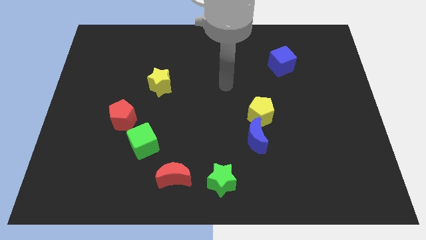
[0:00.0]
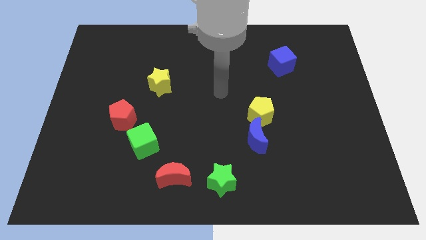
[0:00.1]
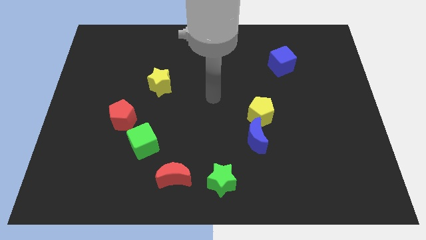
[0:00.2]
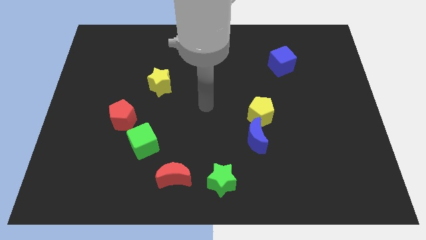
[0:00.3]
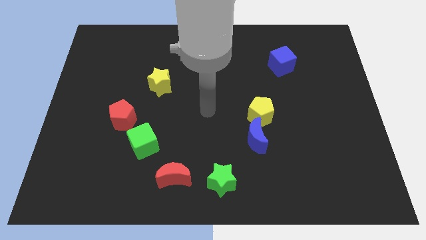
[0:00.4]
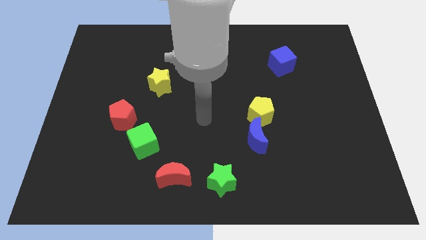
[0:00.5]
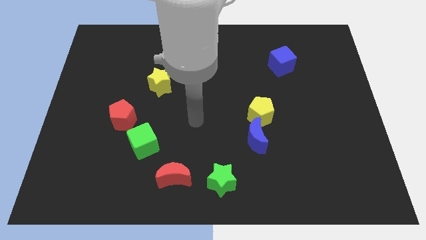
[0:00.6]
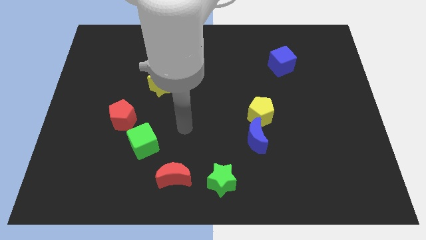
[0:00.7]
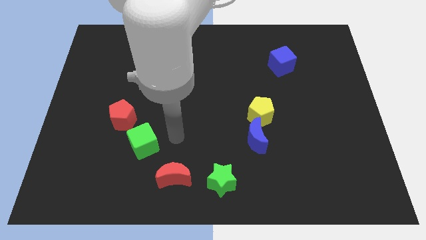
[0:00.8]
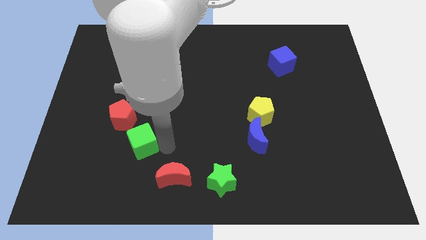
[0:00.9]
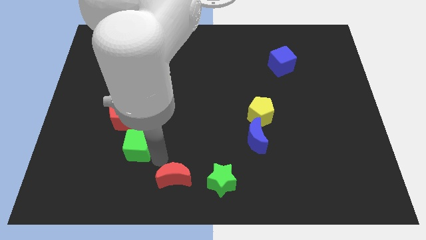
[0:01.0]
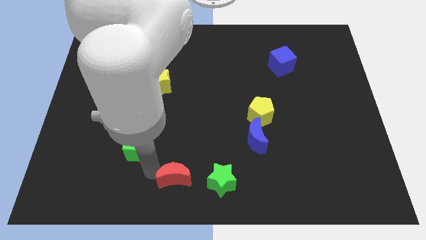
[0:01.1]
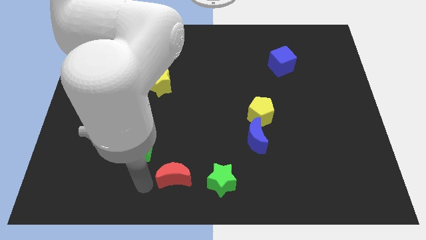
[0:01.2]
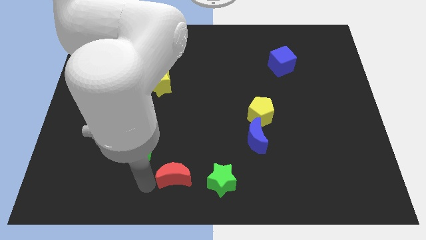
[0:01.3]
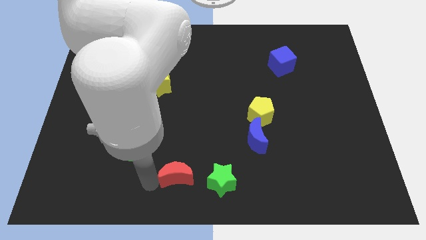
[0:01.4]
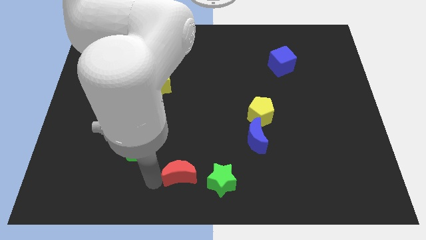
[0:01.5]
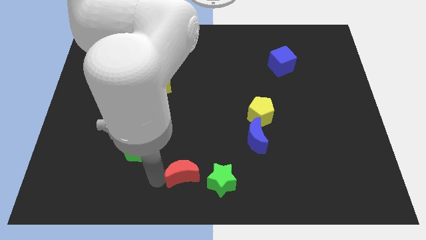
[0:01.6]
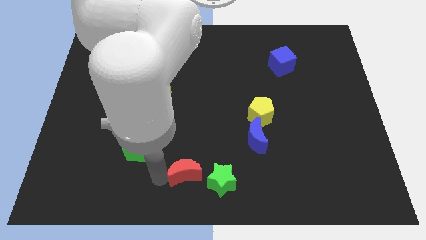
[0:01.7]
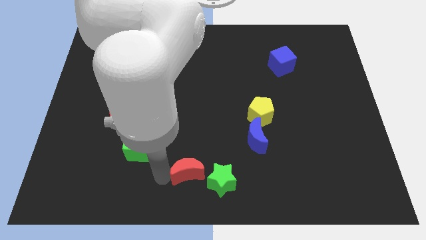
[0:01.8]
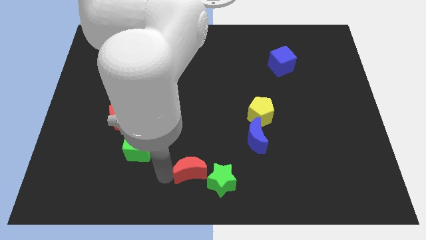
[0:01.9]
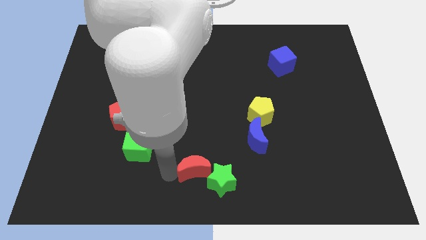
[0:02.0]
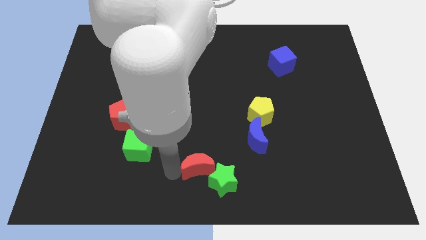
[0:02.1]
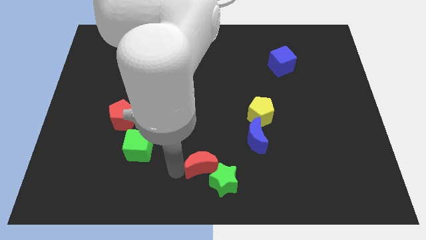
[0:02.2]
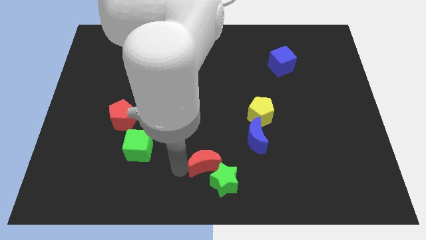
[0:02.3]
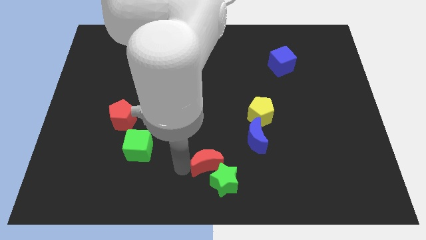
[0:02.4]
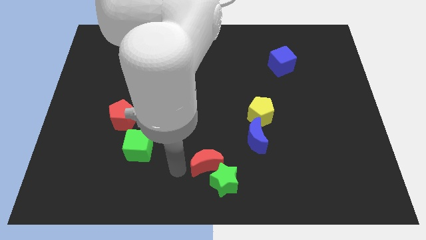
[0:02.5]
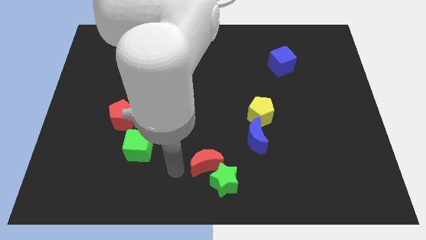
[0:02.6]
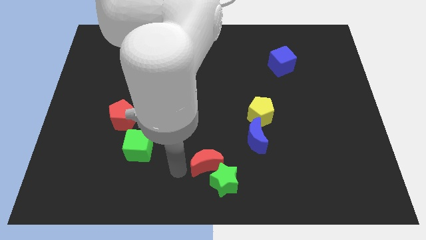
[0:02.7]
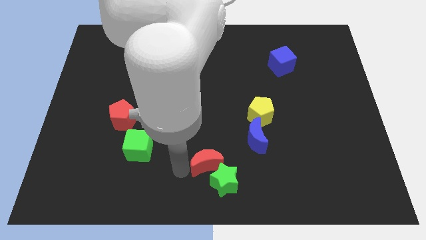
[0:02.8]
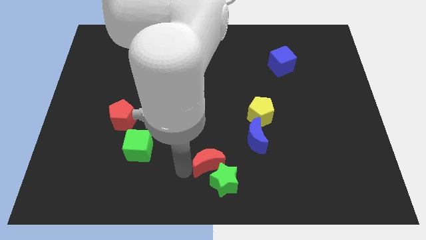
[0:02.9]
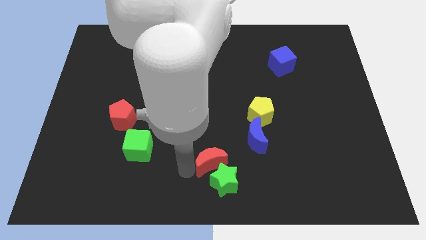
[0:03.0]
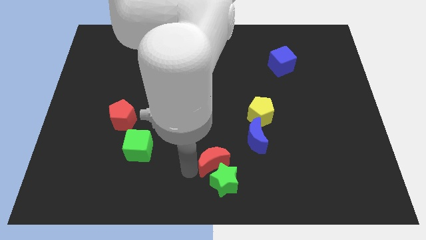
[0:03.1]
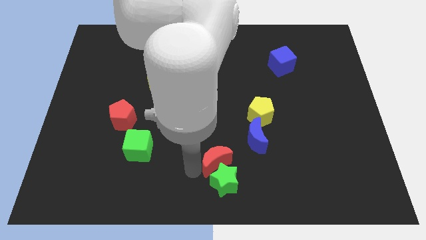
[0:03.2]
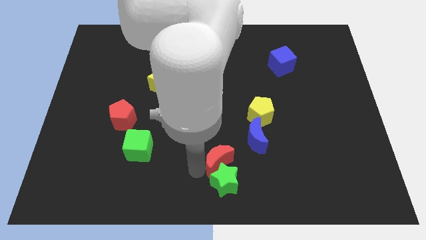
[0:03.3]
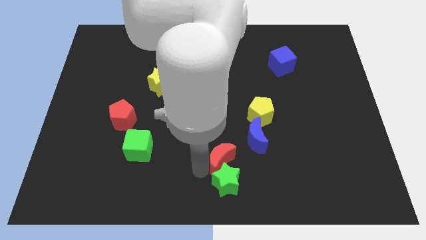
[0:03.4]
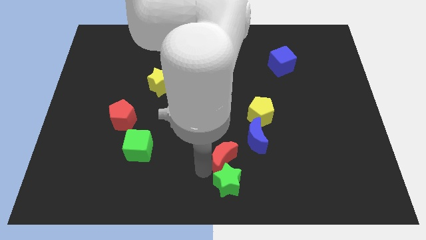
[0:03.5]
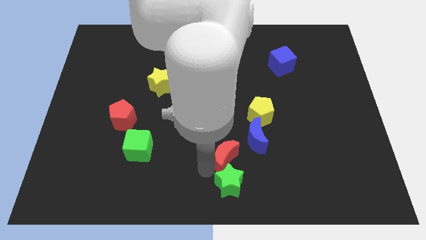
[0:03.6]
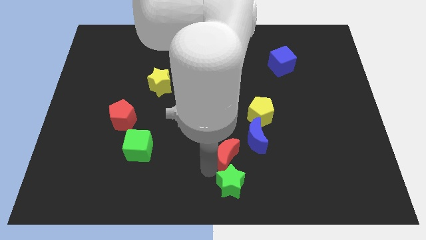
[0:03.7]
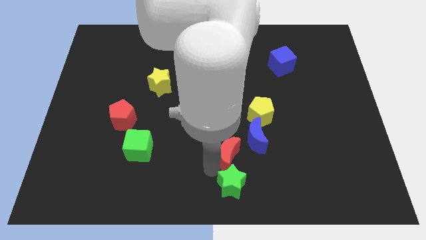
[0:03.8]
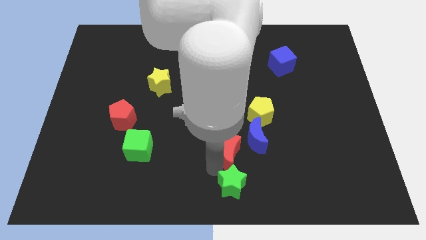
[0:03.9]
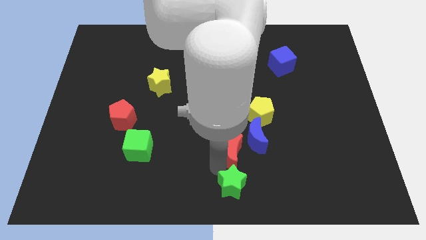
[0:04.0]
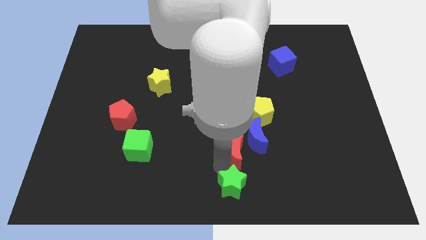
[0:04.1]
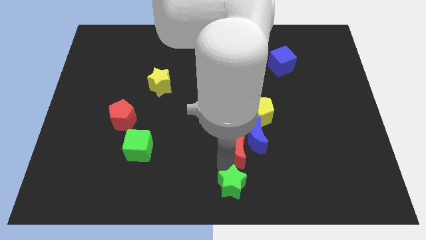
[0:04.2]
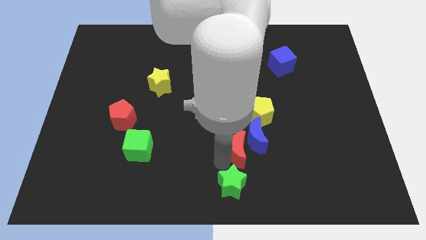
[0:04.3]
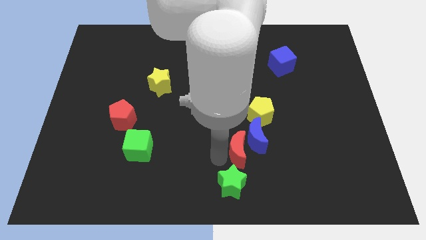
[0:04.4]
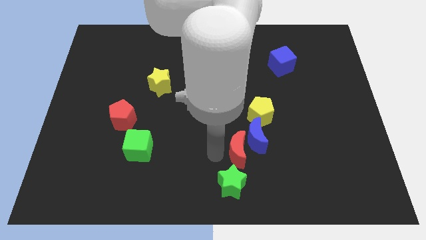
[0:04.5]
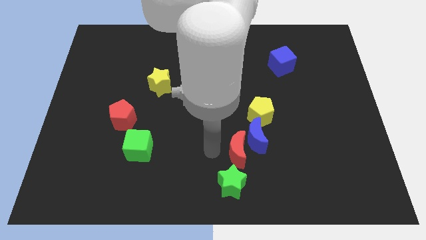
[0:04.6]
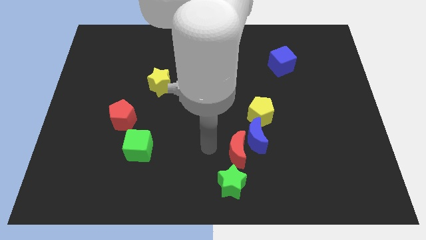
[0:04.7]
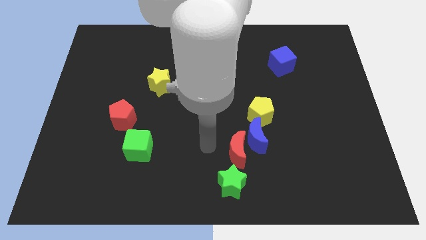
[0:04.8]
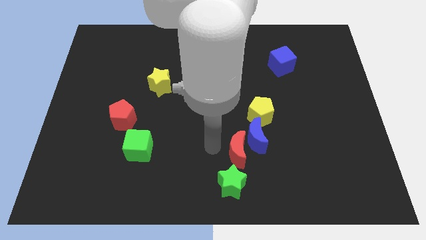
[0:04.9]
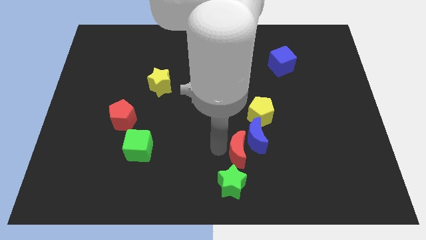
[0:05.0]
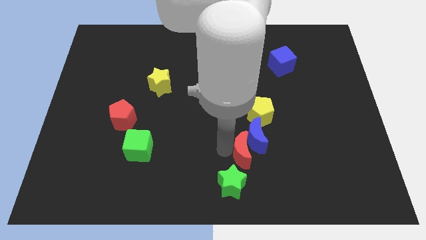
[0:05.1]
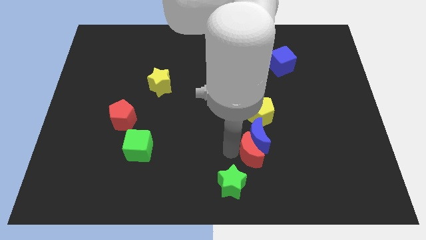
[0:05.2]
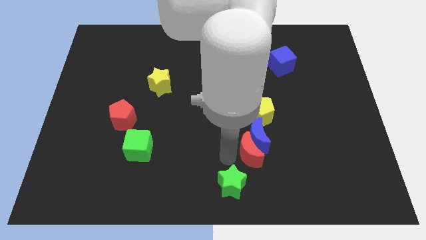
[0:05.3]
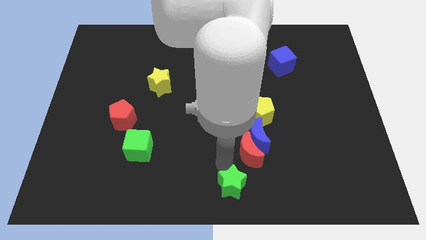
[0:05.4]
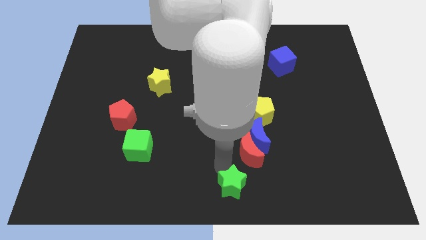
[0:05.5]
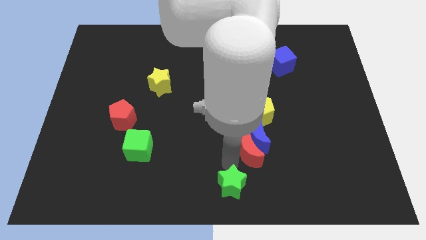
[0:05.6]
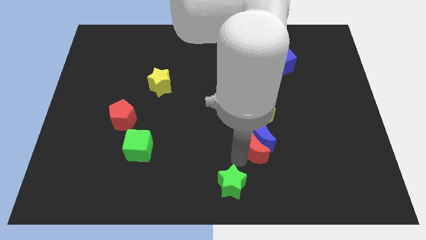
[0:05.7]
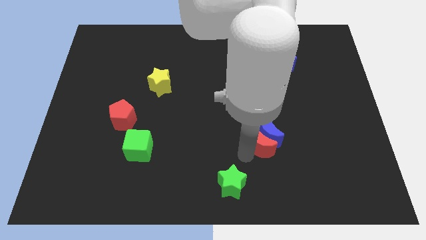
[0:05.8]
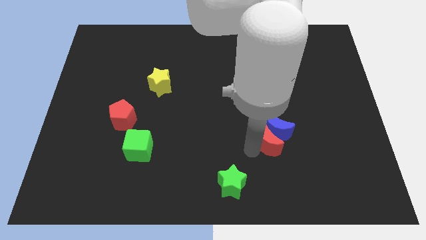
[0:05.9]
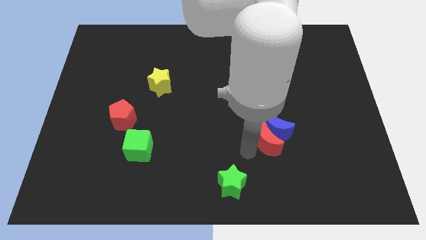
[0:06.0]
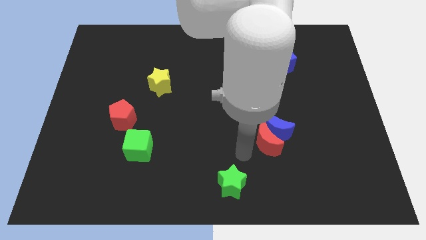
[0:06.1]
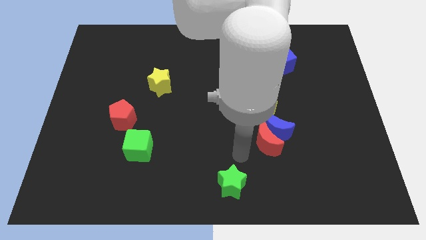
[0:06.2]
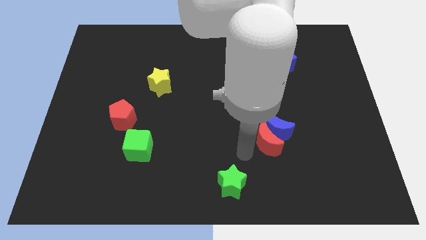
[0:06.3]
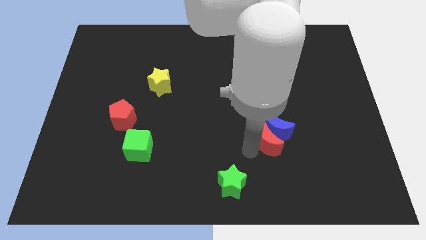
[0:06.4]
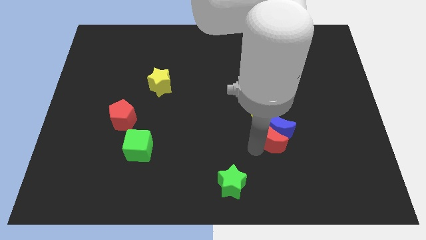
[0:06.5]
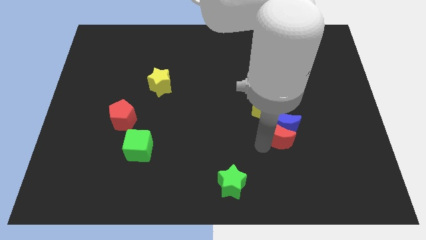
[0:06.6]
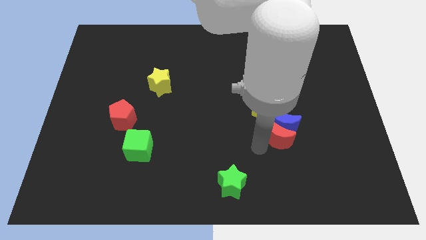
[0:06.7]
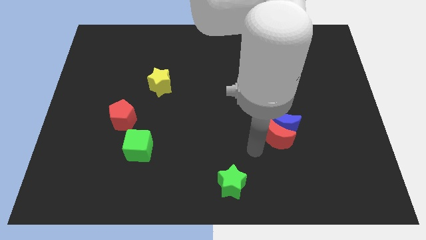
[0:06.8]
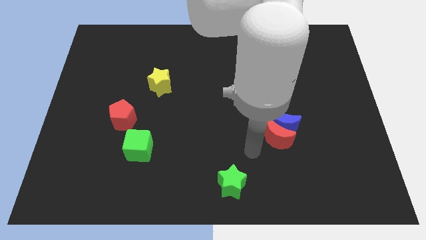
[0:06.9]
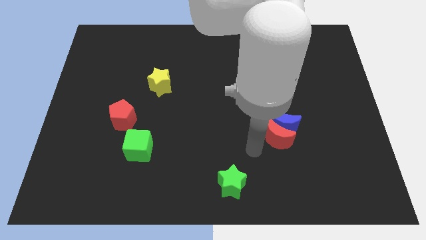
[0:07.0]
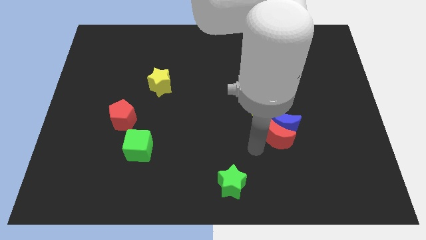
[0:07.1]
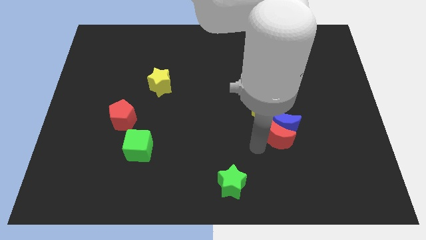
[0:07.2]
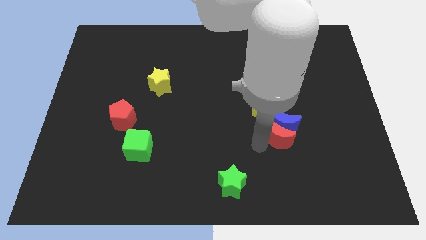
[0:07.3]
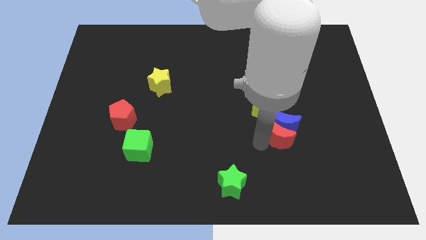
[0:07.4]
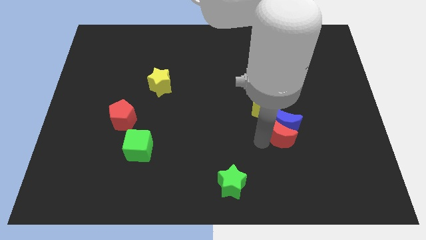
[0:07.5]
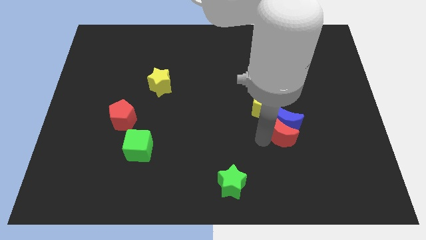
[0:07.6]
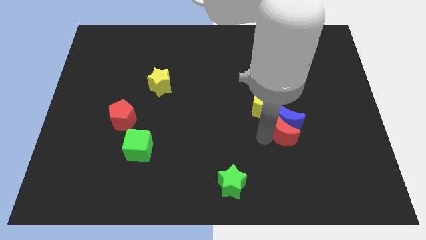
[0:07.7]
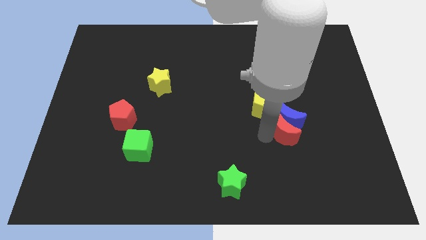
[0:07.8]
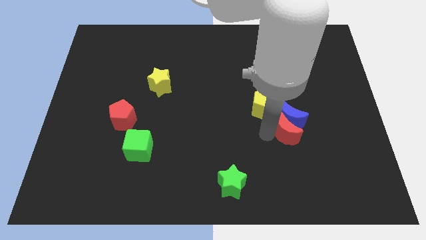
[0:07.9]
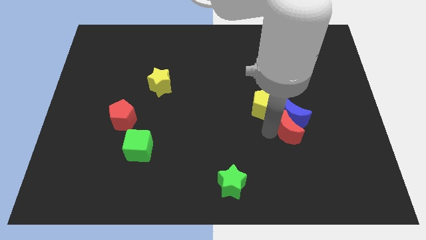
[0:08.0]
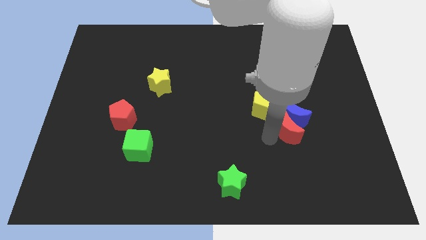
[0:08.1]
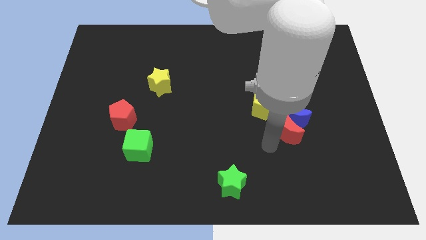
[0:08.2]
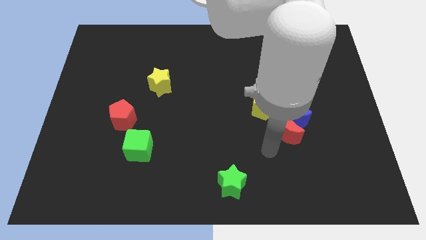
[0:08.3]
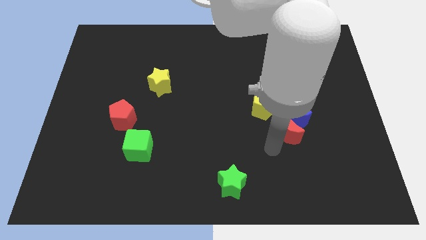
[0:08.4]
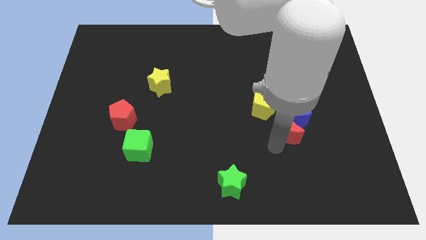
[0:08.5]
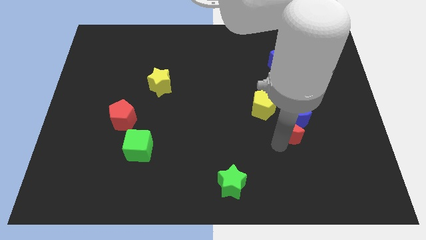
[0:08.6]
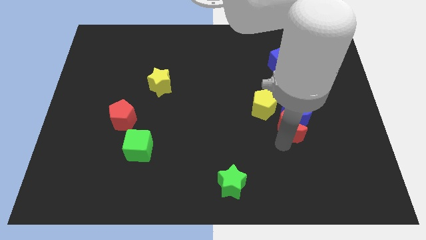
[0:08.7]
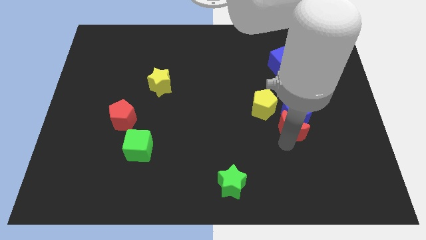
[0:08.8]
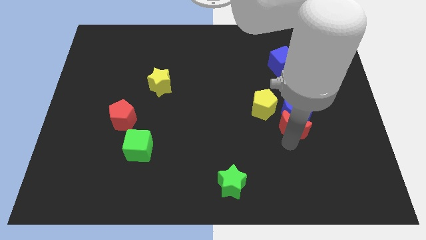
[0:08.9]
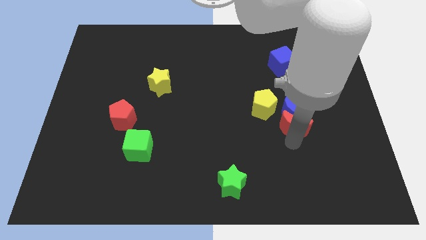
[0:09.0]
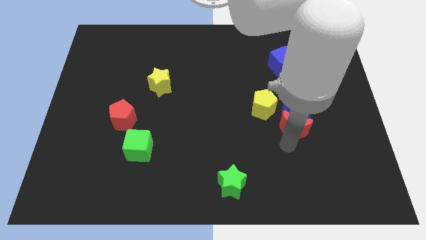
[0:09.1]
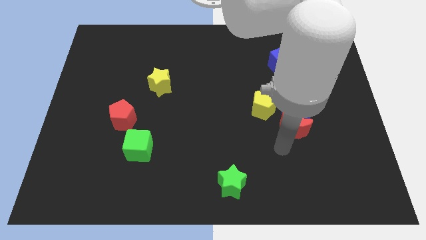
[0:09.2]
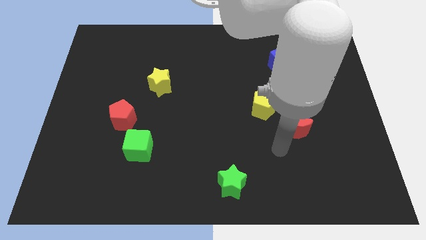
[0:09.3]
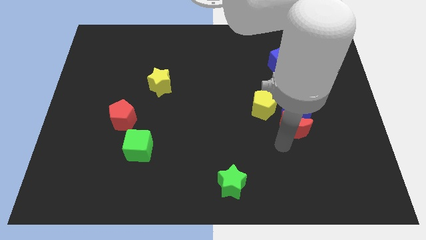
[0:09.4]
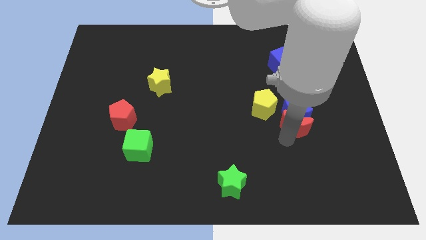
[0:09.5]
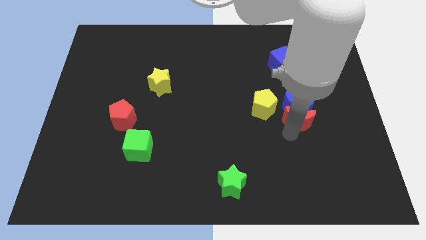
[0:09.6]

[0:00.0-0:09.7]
push the red moon just right of the yellow pentagon
